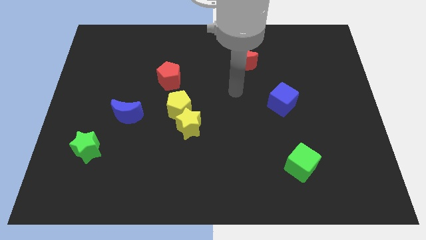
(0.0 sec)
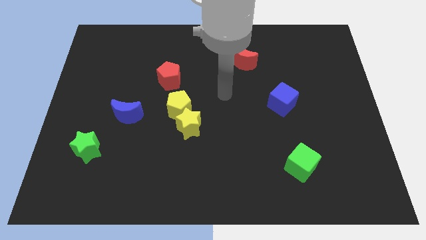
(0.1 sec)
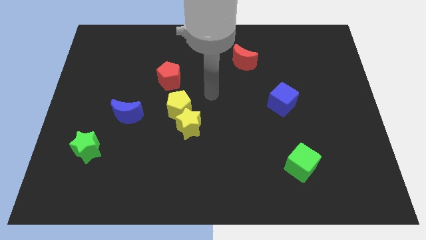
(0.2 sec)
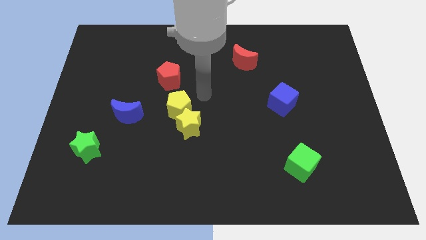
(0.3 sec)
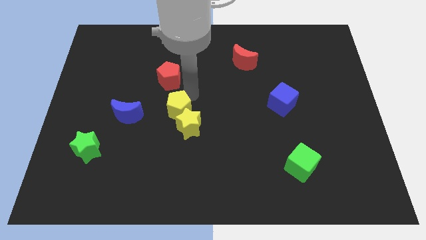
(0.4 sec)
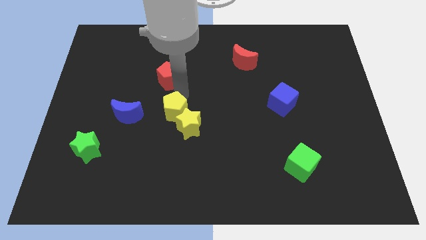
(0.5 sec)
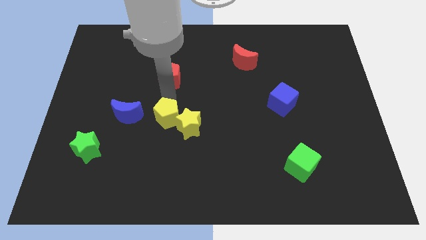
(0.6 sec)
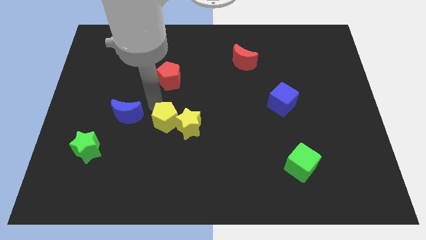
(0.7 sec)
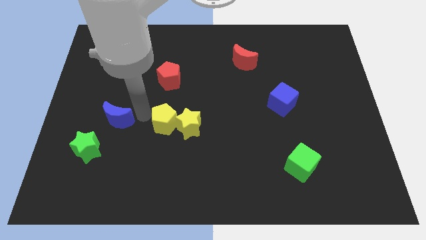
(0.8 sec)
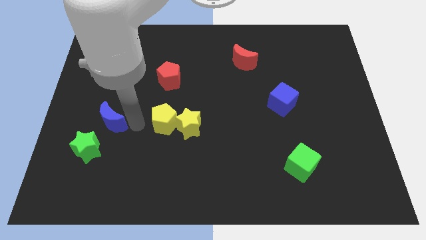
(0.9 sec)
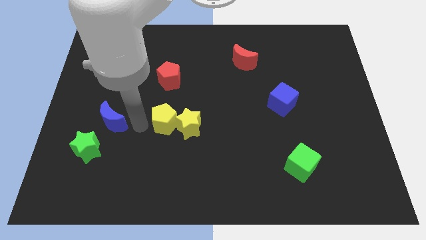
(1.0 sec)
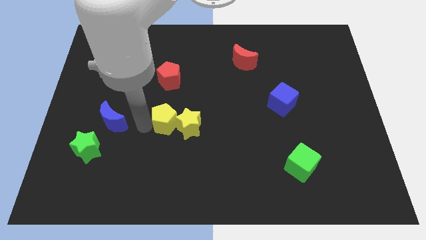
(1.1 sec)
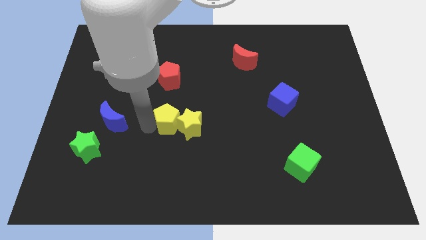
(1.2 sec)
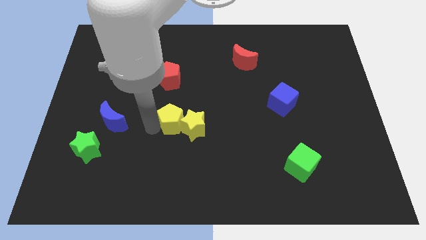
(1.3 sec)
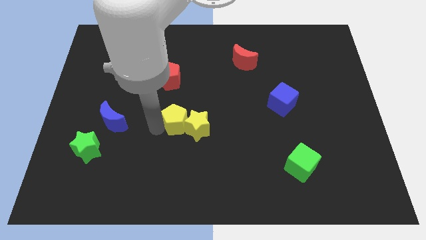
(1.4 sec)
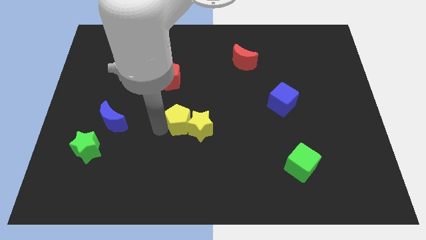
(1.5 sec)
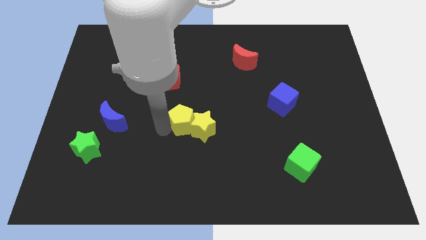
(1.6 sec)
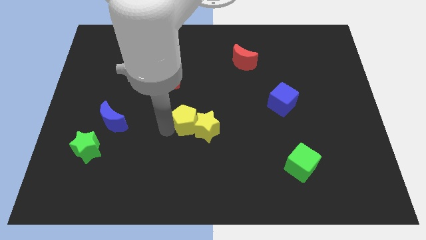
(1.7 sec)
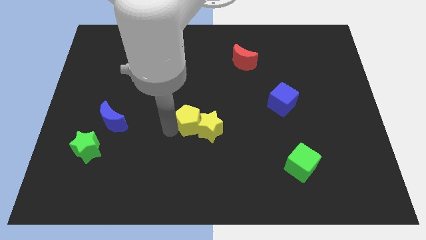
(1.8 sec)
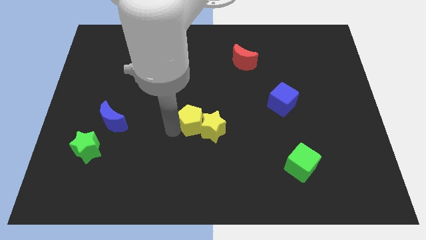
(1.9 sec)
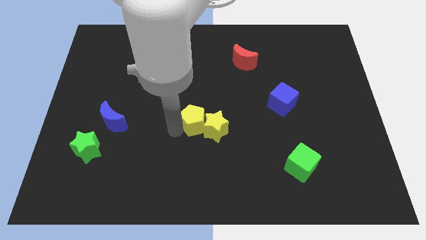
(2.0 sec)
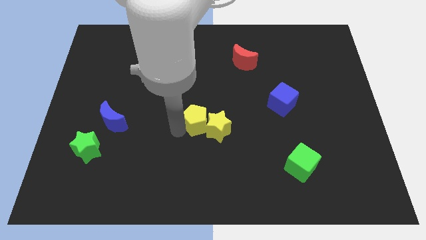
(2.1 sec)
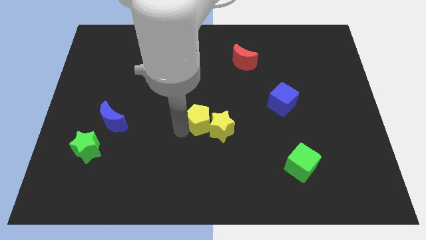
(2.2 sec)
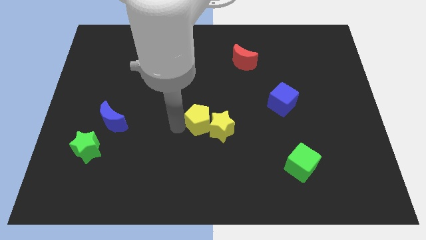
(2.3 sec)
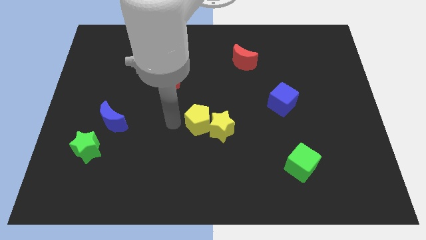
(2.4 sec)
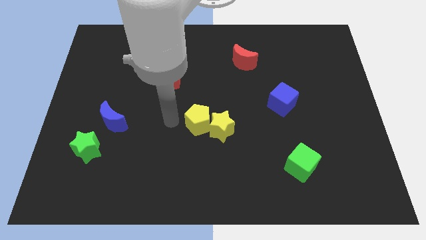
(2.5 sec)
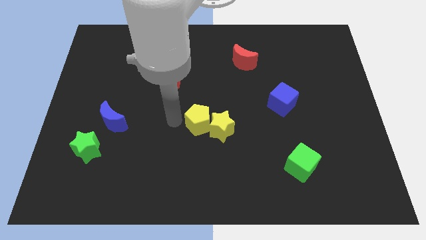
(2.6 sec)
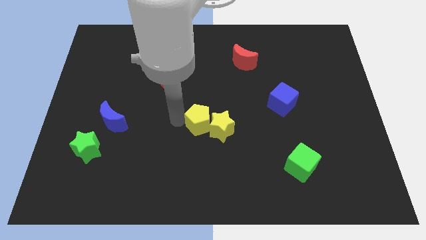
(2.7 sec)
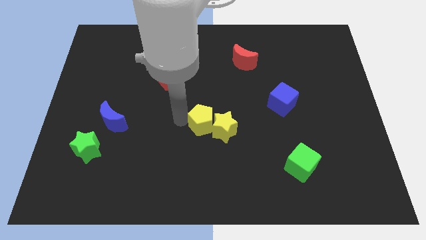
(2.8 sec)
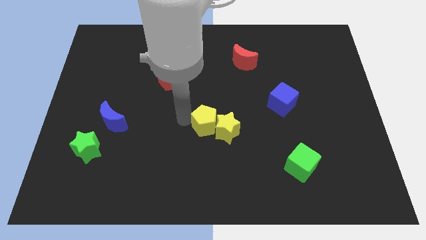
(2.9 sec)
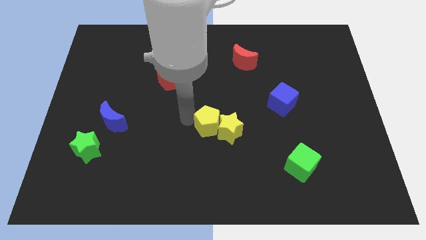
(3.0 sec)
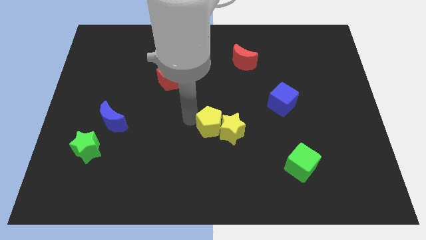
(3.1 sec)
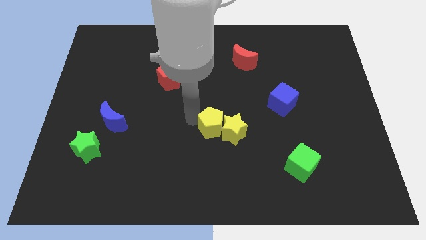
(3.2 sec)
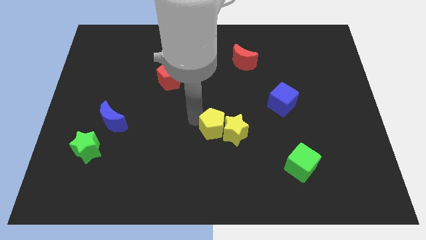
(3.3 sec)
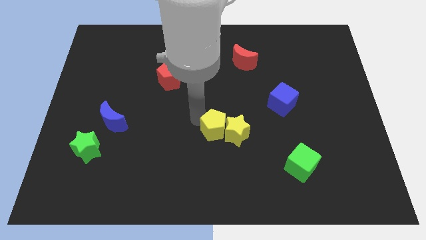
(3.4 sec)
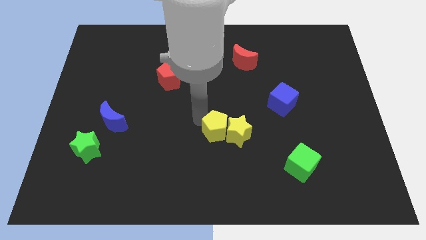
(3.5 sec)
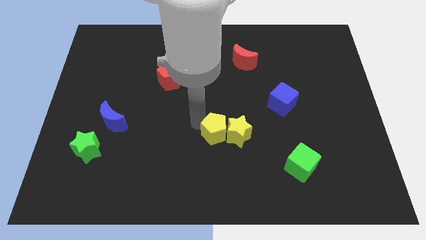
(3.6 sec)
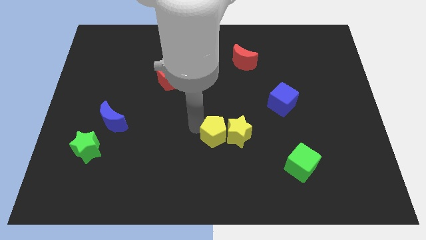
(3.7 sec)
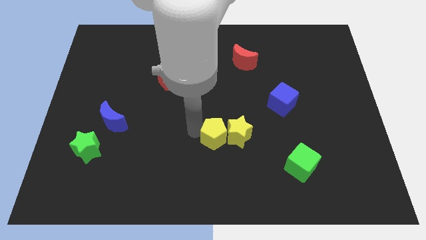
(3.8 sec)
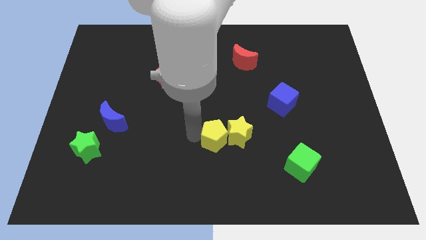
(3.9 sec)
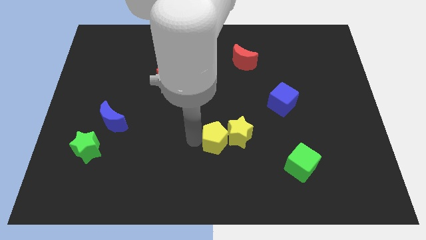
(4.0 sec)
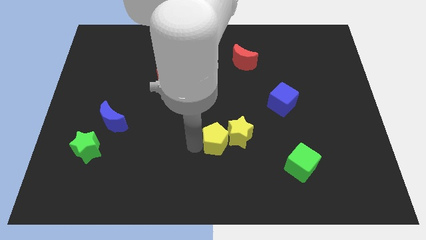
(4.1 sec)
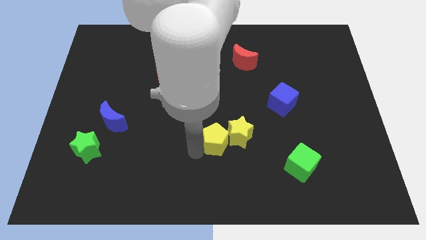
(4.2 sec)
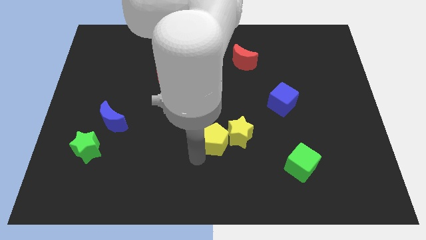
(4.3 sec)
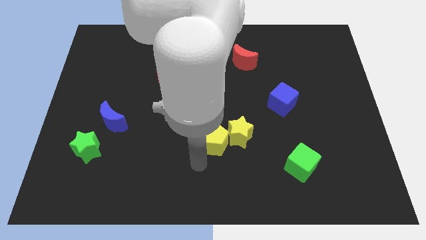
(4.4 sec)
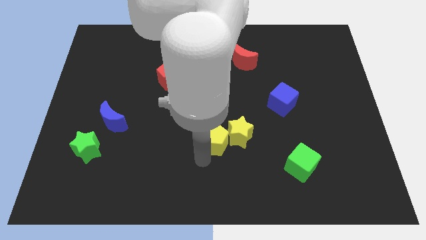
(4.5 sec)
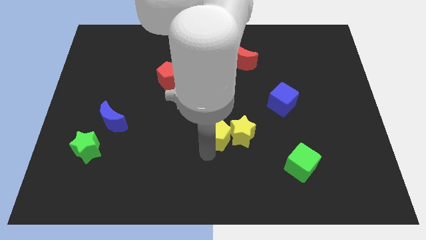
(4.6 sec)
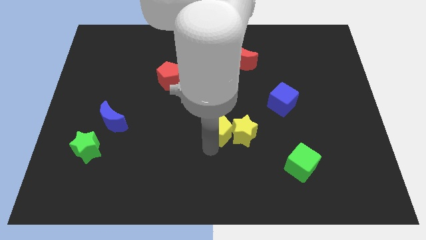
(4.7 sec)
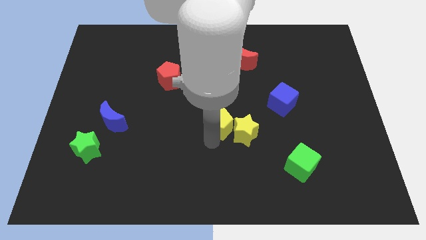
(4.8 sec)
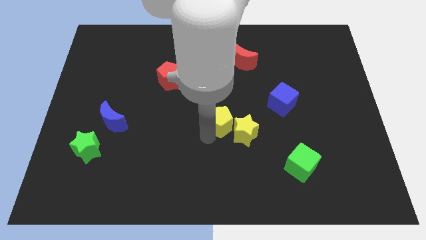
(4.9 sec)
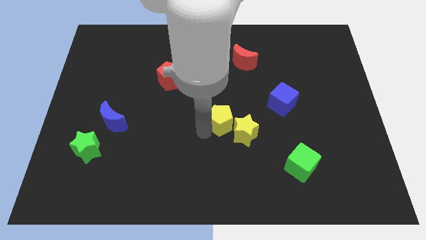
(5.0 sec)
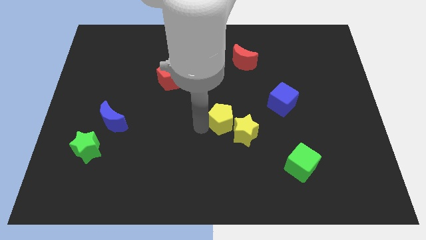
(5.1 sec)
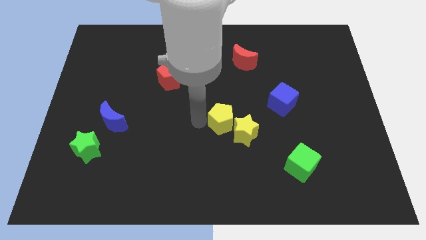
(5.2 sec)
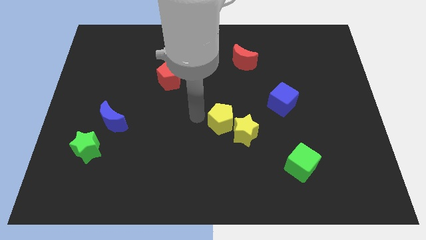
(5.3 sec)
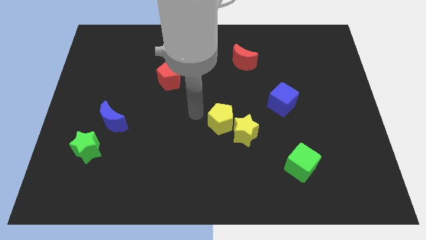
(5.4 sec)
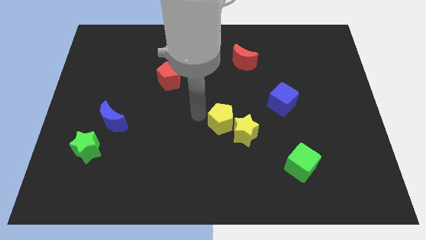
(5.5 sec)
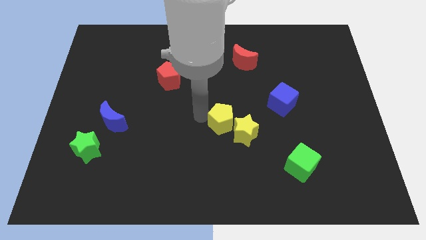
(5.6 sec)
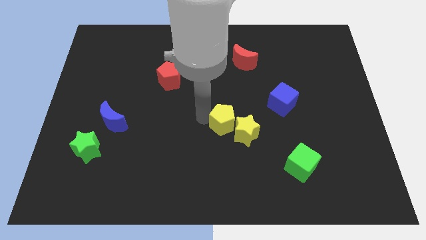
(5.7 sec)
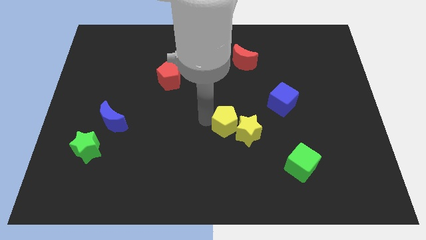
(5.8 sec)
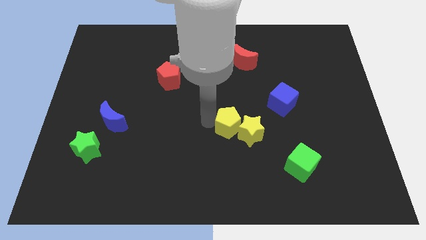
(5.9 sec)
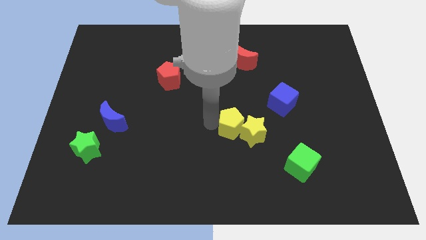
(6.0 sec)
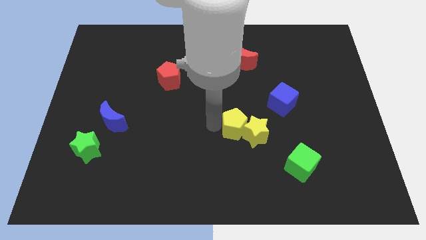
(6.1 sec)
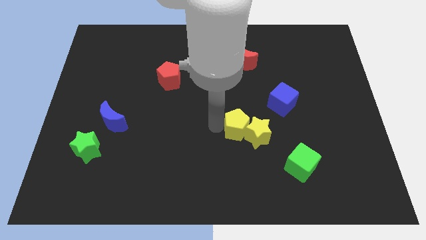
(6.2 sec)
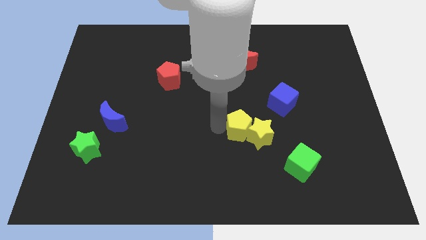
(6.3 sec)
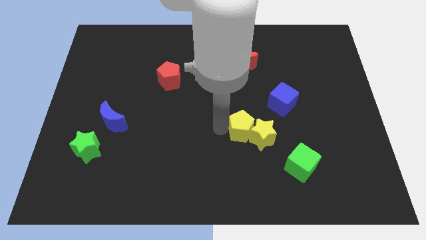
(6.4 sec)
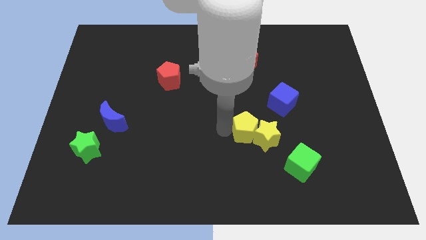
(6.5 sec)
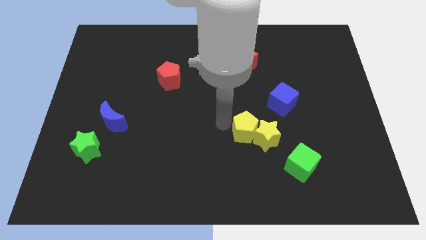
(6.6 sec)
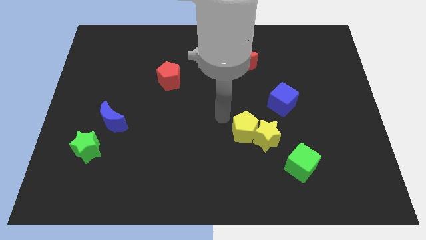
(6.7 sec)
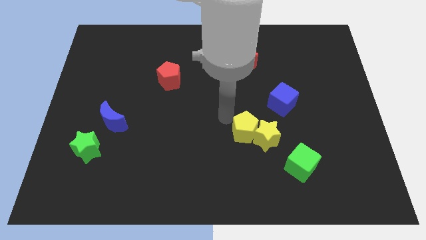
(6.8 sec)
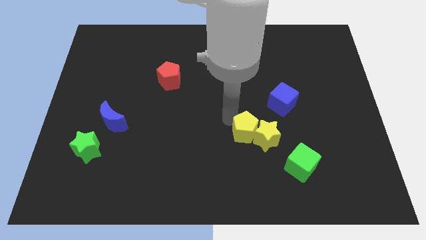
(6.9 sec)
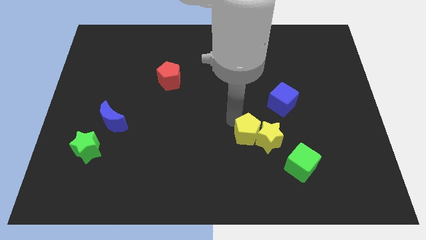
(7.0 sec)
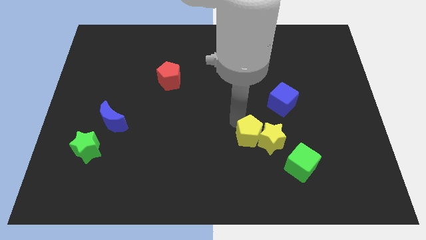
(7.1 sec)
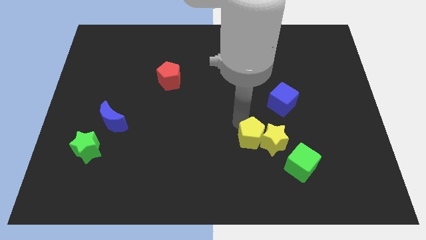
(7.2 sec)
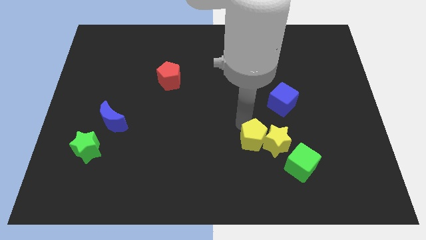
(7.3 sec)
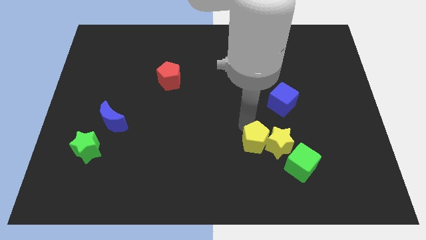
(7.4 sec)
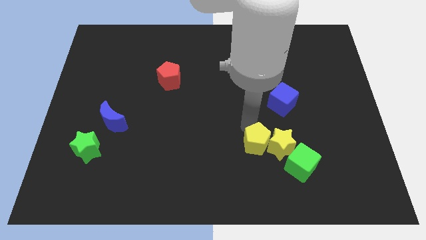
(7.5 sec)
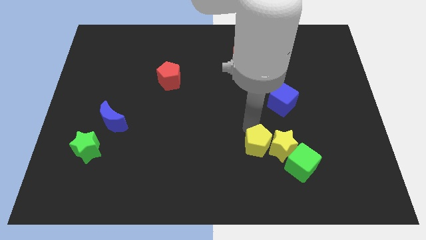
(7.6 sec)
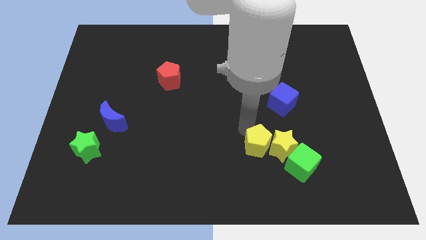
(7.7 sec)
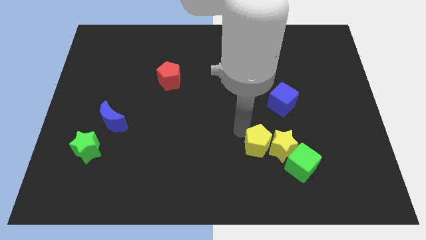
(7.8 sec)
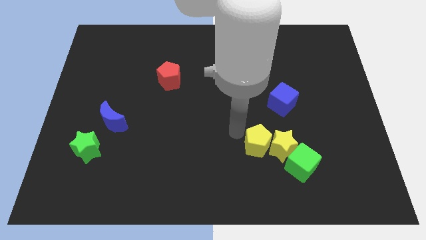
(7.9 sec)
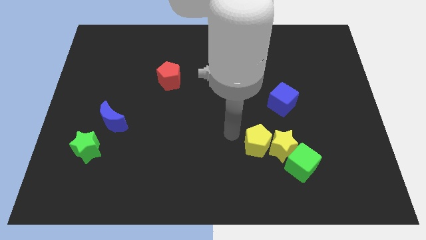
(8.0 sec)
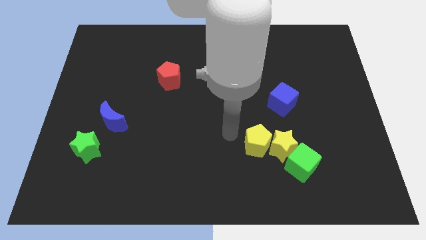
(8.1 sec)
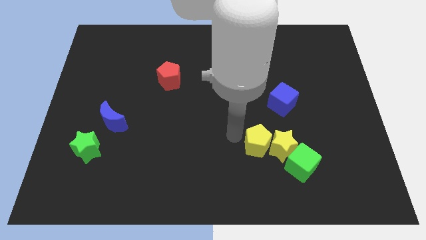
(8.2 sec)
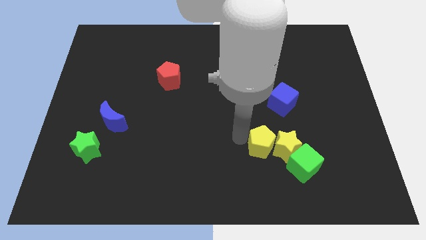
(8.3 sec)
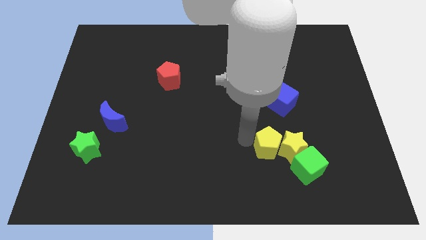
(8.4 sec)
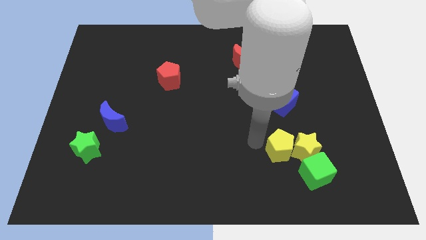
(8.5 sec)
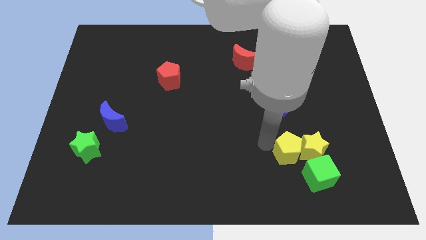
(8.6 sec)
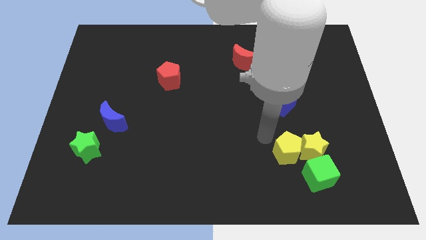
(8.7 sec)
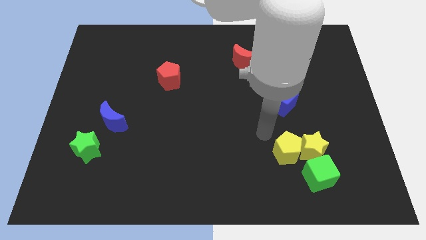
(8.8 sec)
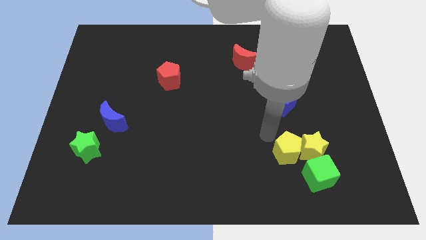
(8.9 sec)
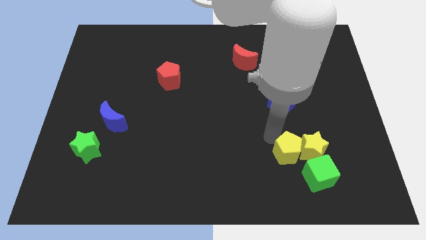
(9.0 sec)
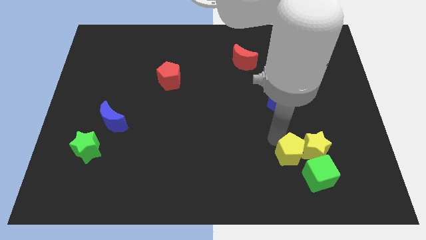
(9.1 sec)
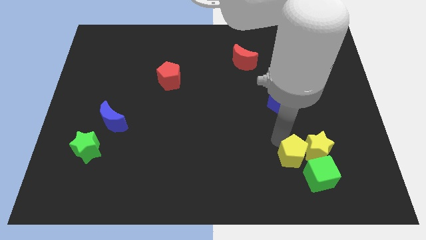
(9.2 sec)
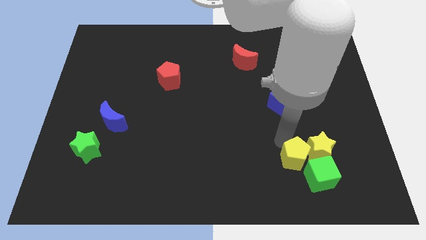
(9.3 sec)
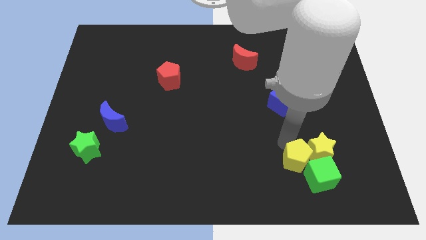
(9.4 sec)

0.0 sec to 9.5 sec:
move the yellow pentagon to the green cube
